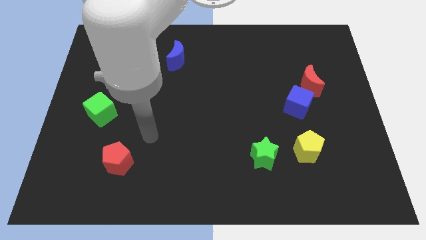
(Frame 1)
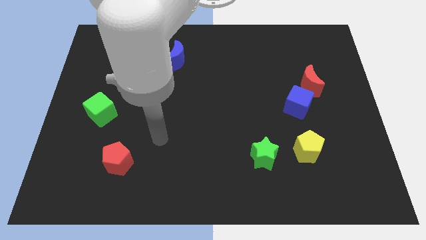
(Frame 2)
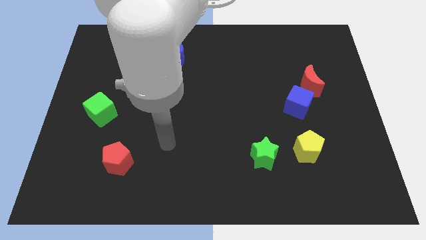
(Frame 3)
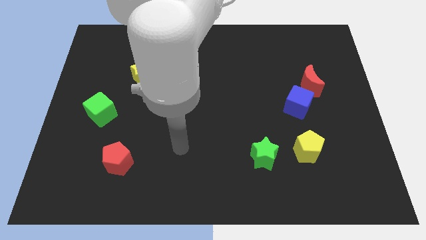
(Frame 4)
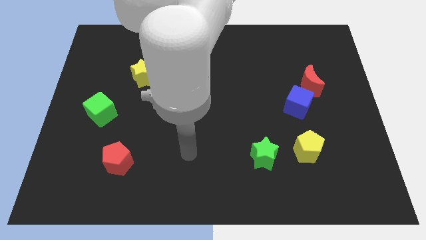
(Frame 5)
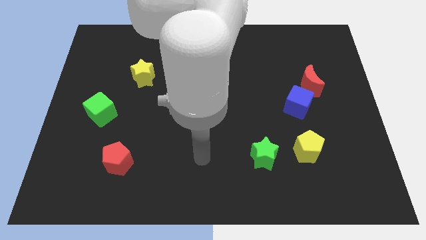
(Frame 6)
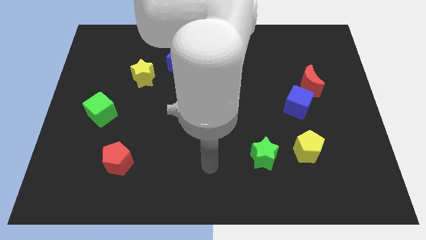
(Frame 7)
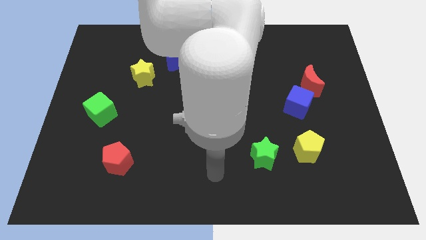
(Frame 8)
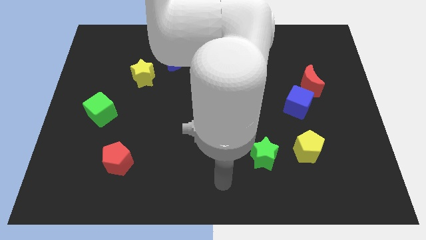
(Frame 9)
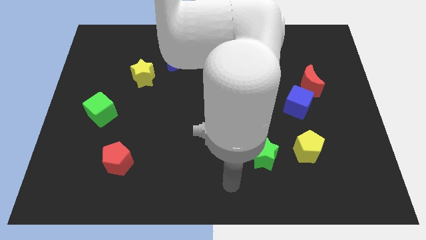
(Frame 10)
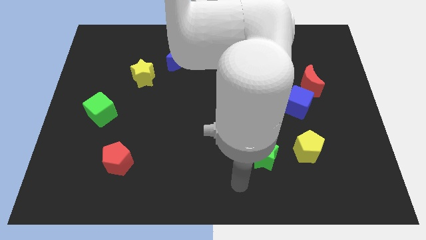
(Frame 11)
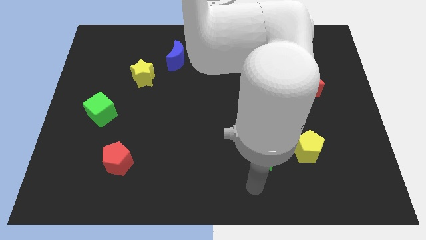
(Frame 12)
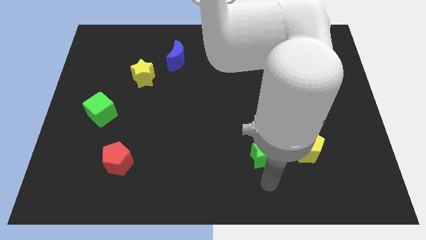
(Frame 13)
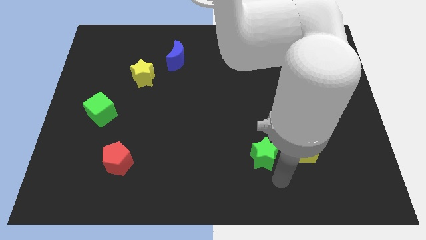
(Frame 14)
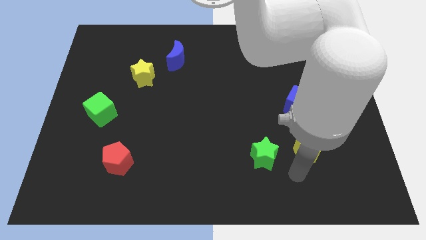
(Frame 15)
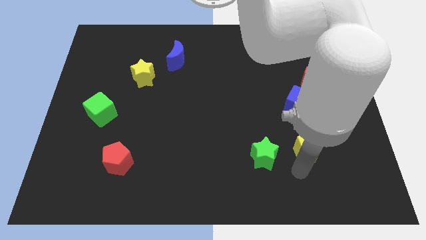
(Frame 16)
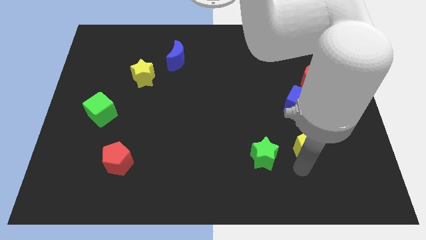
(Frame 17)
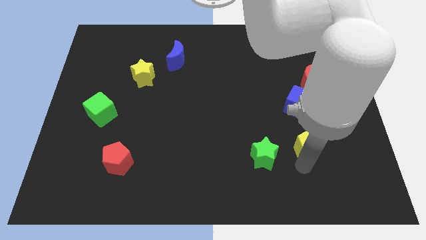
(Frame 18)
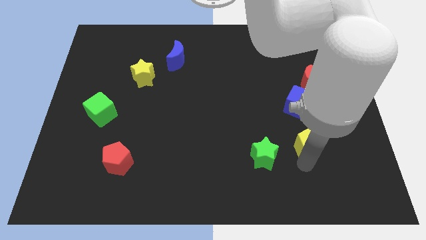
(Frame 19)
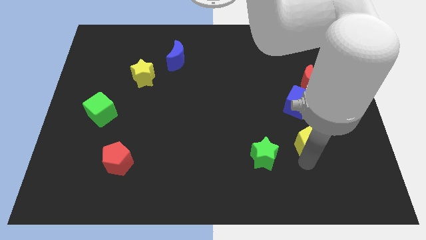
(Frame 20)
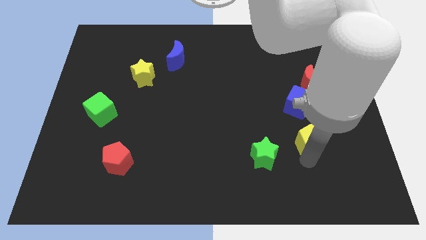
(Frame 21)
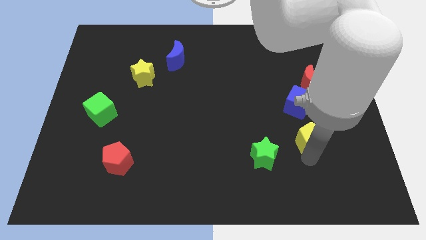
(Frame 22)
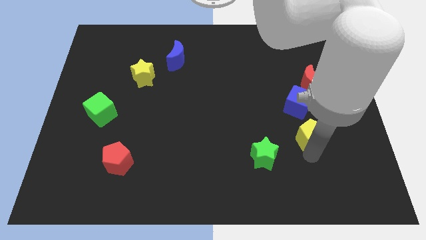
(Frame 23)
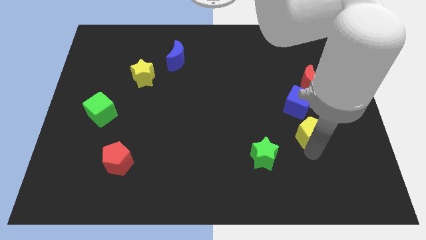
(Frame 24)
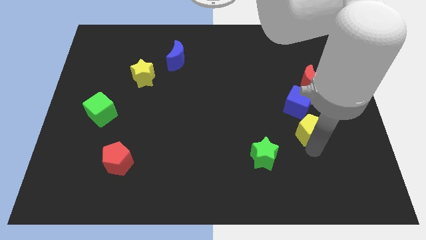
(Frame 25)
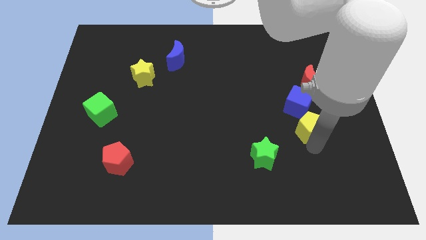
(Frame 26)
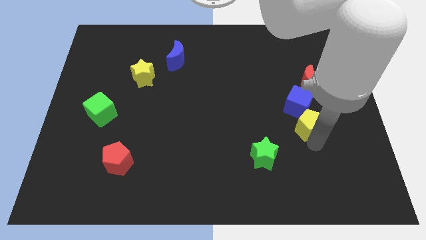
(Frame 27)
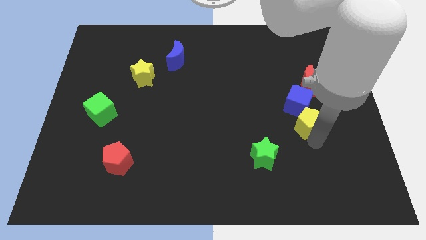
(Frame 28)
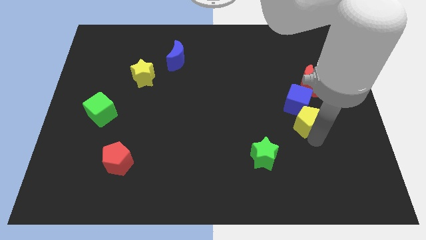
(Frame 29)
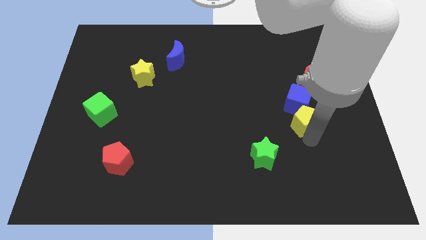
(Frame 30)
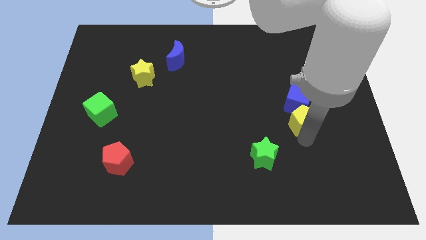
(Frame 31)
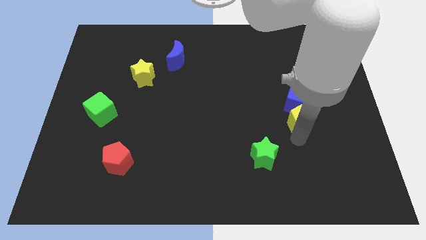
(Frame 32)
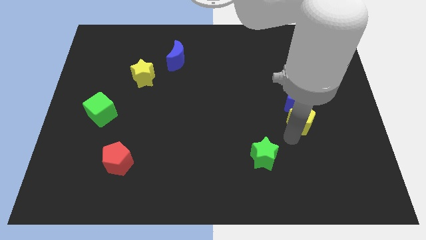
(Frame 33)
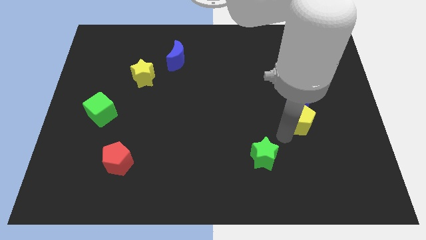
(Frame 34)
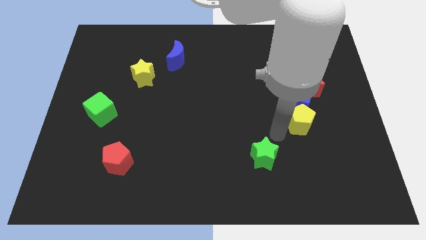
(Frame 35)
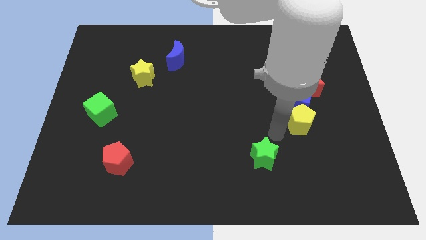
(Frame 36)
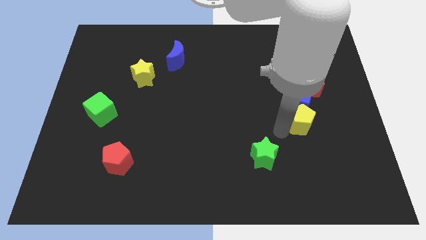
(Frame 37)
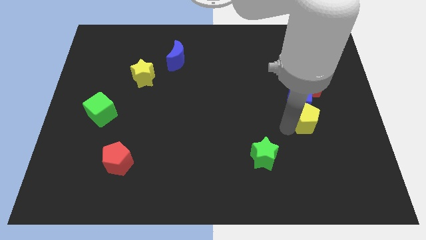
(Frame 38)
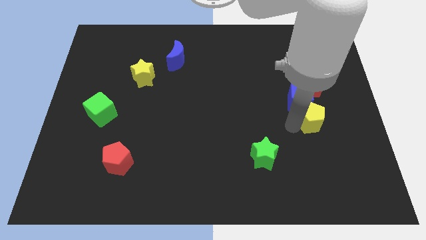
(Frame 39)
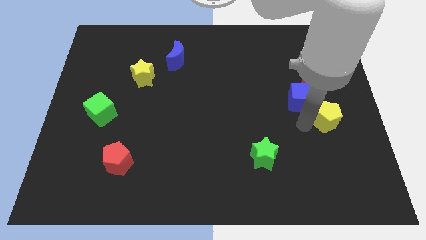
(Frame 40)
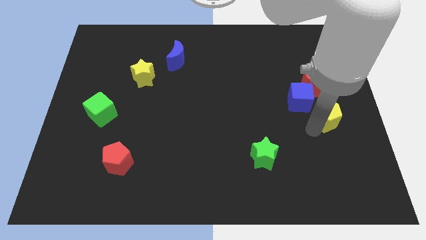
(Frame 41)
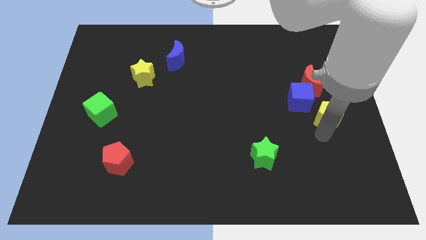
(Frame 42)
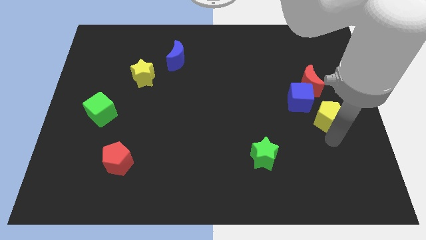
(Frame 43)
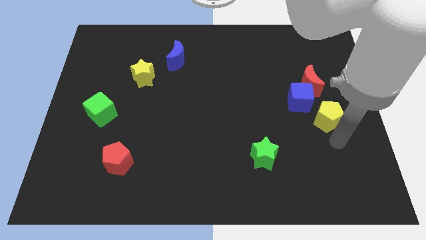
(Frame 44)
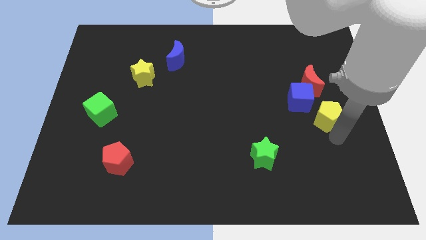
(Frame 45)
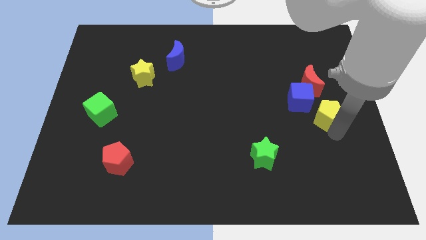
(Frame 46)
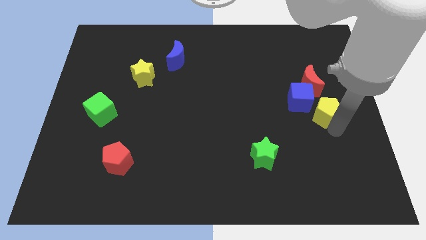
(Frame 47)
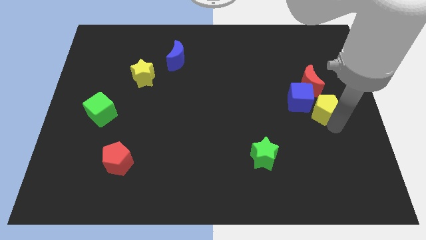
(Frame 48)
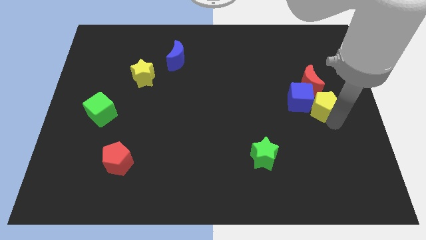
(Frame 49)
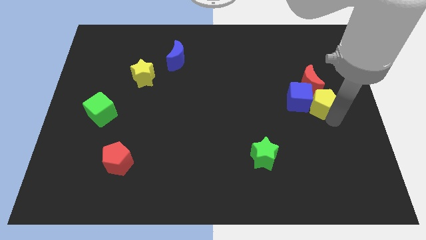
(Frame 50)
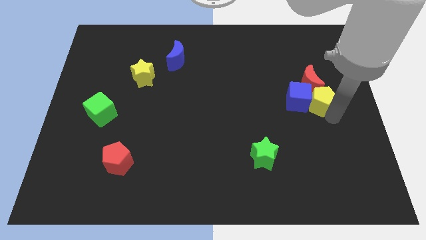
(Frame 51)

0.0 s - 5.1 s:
push the yellow pentagon towards the red moon

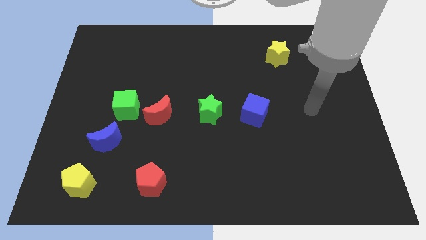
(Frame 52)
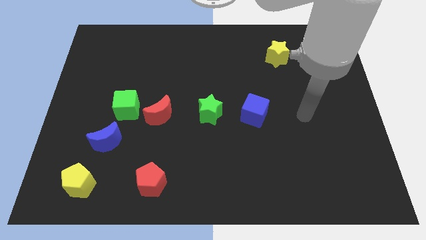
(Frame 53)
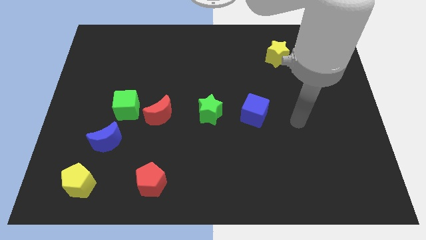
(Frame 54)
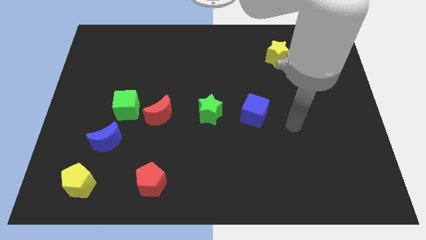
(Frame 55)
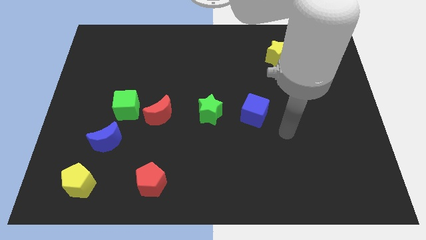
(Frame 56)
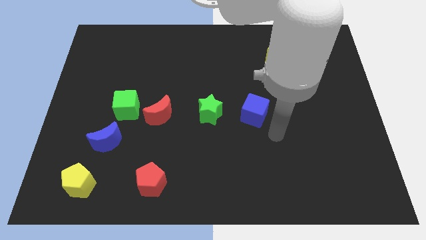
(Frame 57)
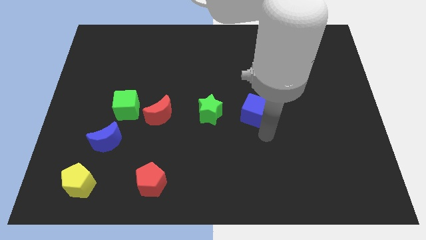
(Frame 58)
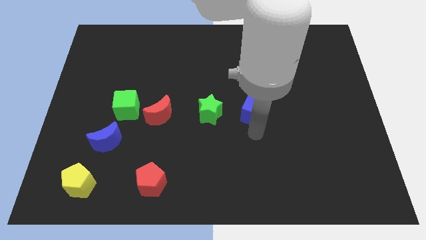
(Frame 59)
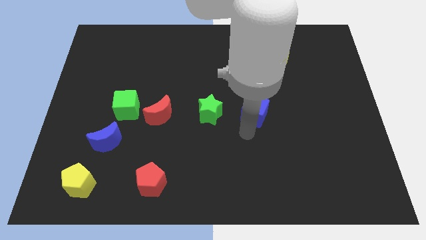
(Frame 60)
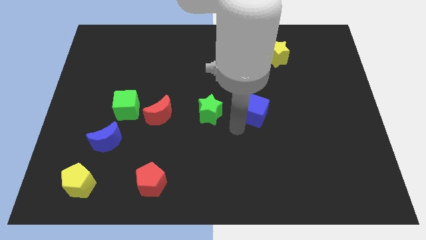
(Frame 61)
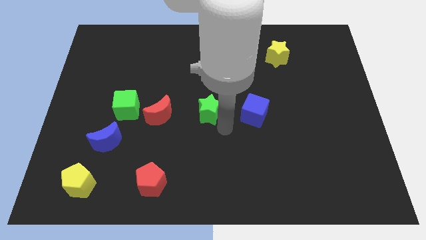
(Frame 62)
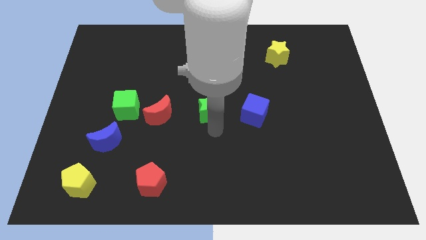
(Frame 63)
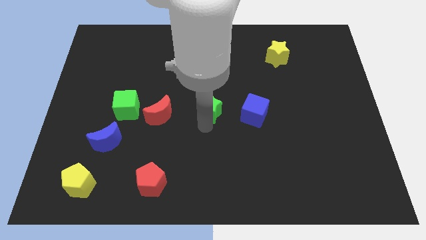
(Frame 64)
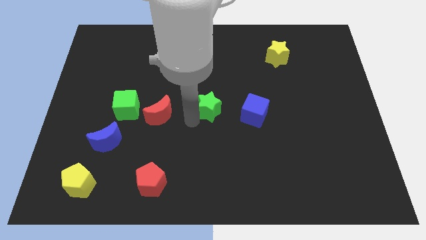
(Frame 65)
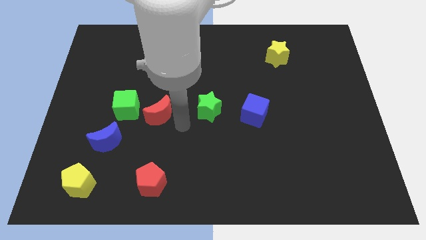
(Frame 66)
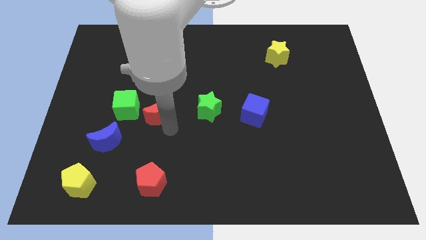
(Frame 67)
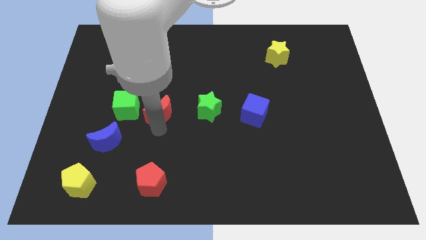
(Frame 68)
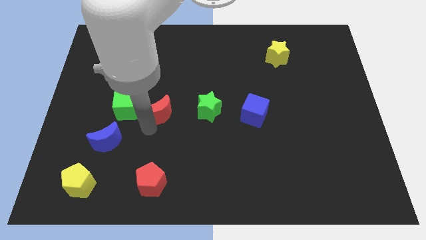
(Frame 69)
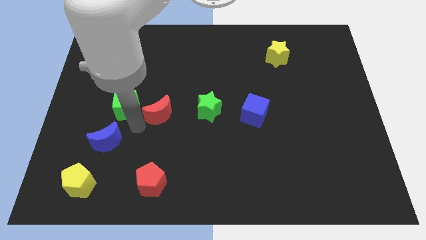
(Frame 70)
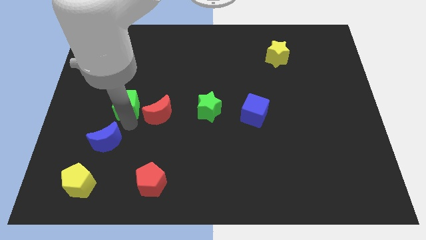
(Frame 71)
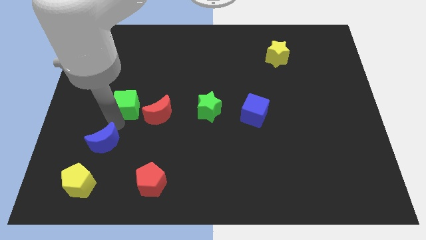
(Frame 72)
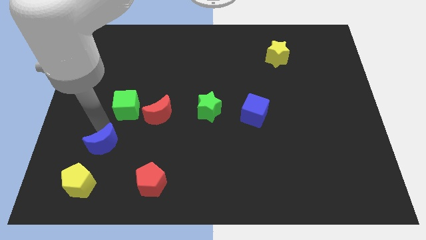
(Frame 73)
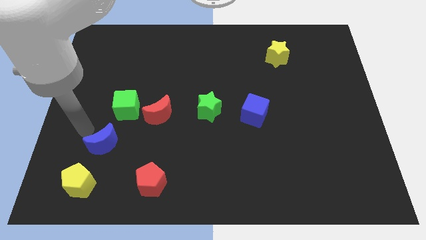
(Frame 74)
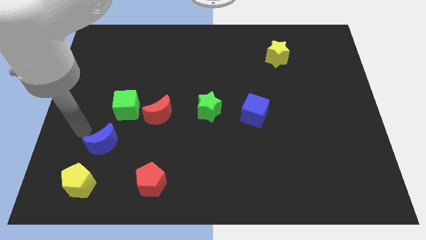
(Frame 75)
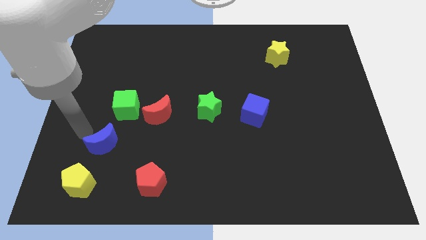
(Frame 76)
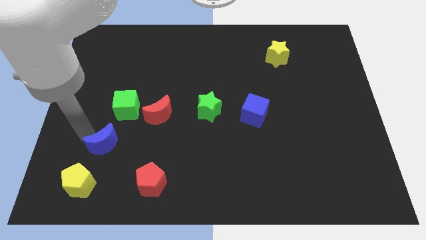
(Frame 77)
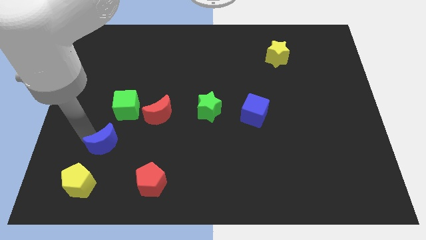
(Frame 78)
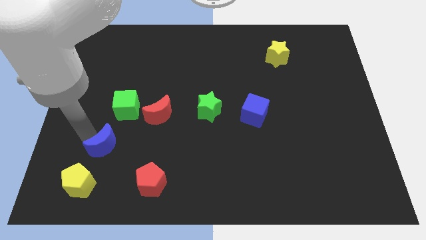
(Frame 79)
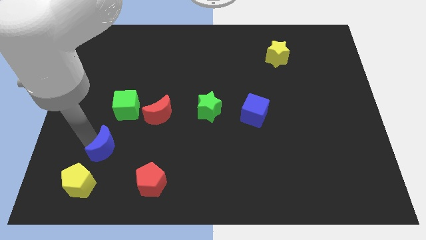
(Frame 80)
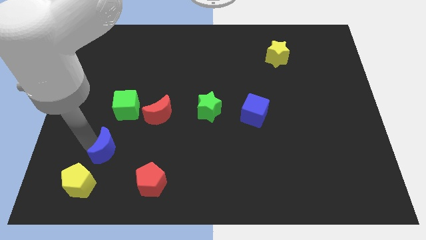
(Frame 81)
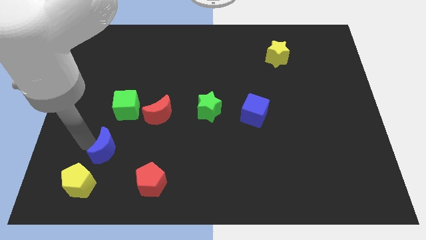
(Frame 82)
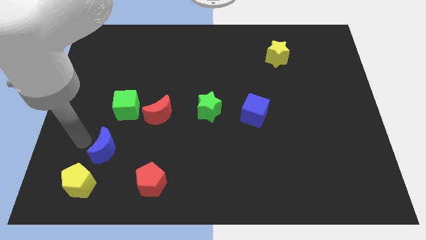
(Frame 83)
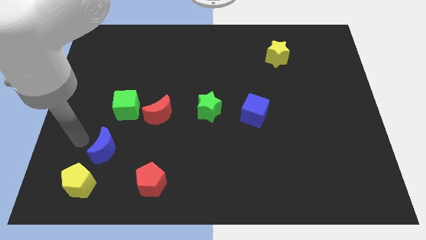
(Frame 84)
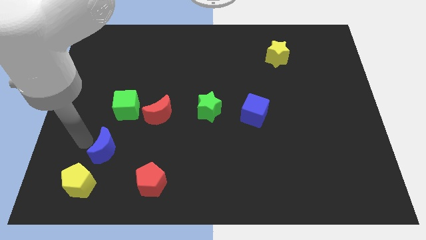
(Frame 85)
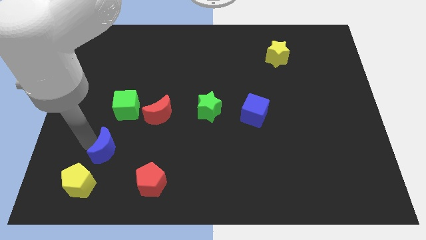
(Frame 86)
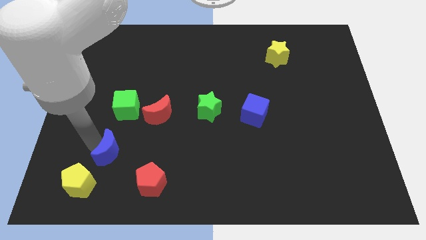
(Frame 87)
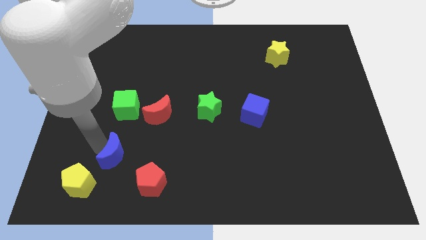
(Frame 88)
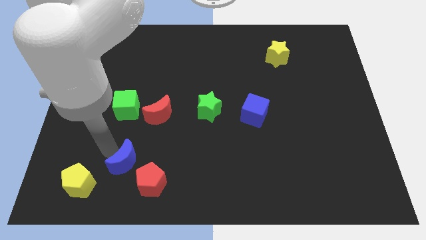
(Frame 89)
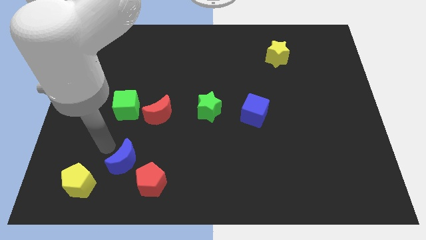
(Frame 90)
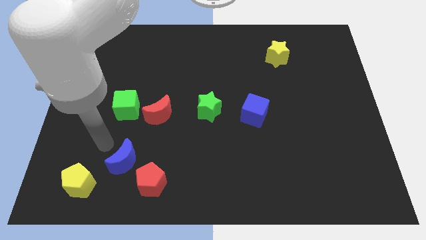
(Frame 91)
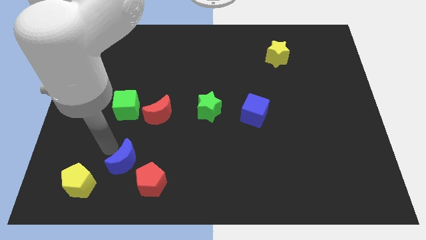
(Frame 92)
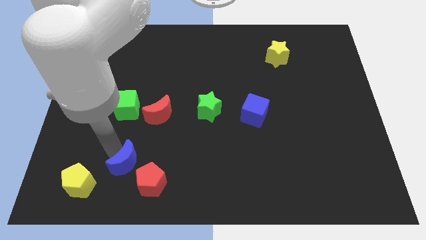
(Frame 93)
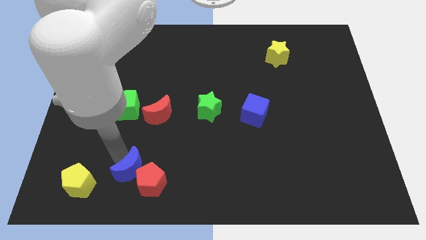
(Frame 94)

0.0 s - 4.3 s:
move the blue moon to the red pentagon
